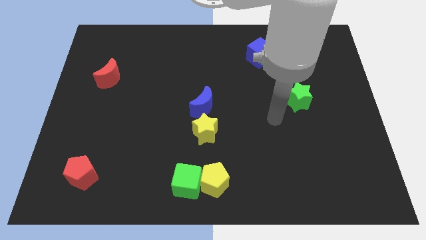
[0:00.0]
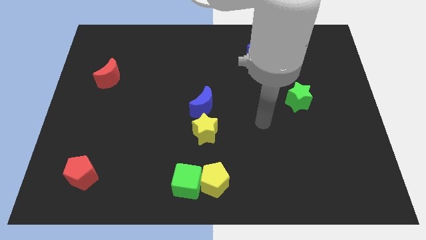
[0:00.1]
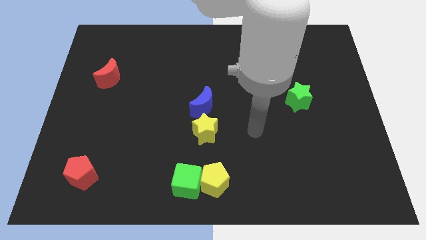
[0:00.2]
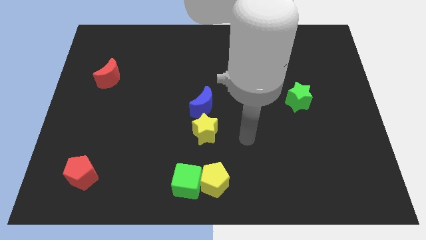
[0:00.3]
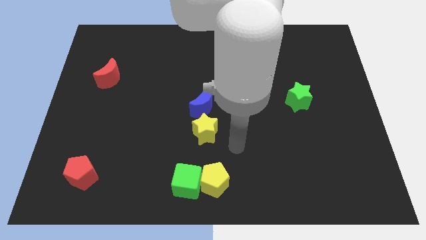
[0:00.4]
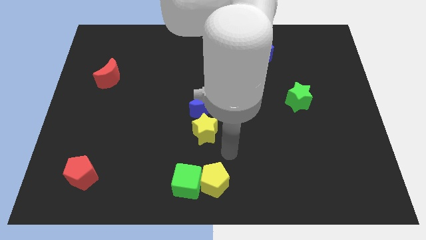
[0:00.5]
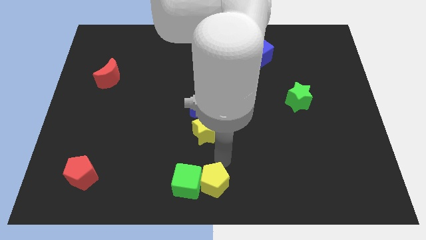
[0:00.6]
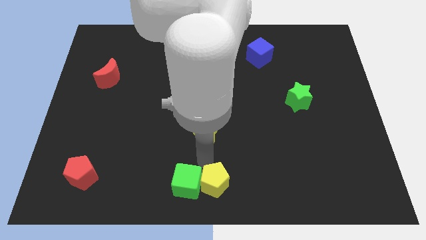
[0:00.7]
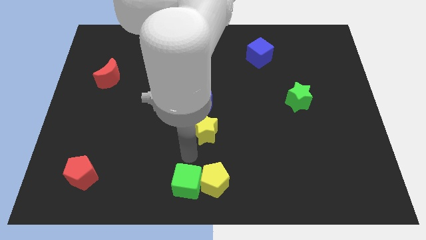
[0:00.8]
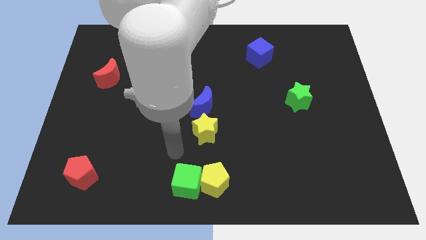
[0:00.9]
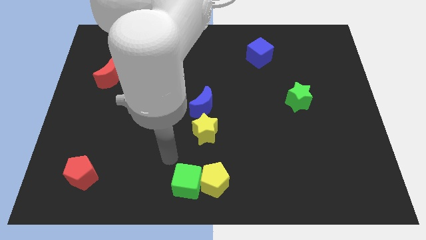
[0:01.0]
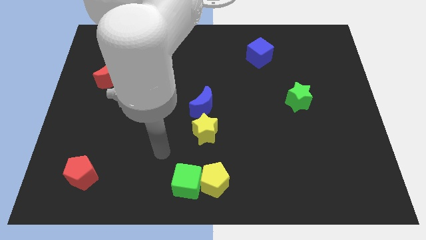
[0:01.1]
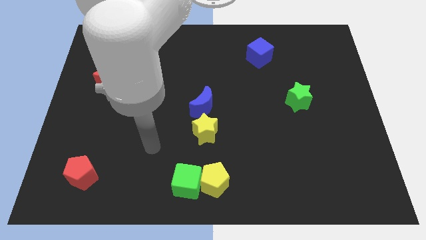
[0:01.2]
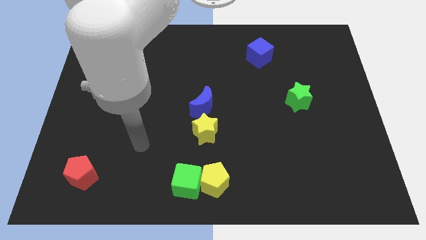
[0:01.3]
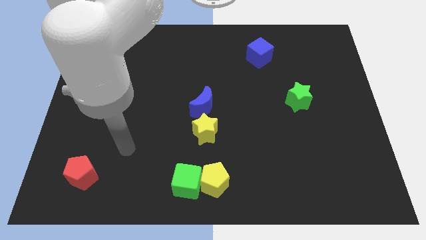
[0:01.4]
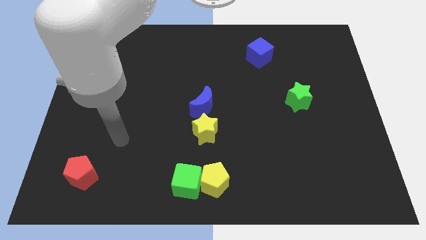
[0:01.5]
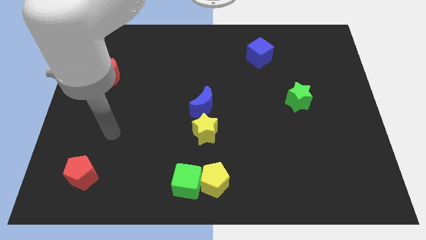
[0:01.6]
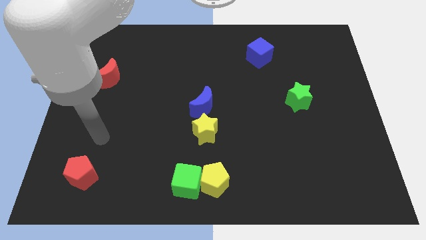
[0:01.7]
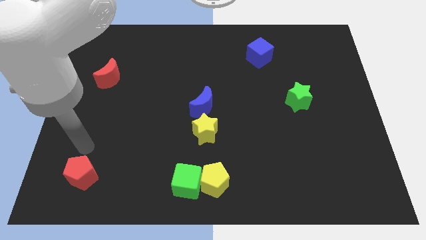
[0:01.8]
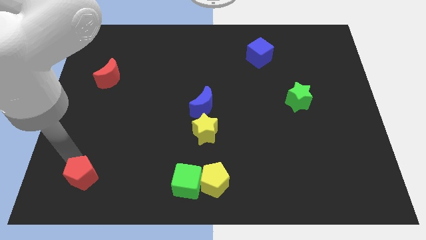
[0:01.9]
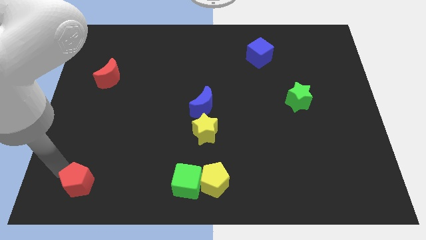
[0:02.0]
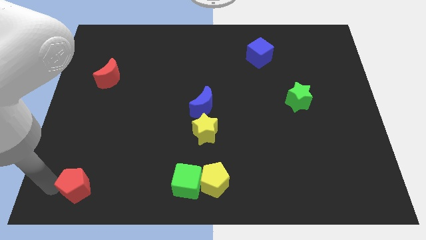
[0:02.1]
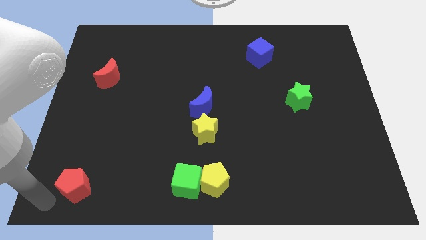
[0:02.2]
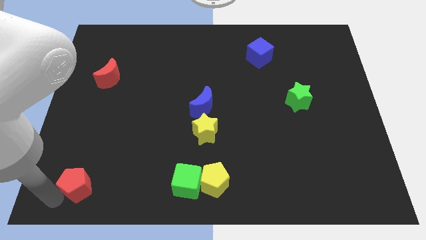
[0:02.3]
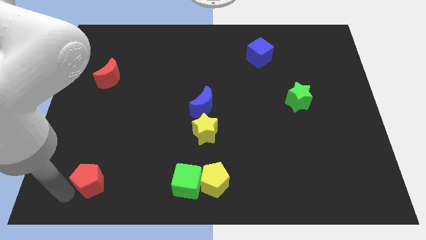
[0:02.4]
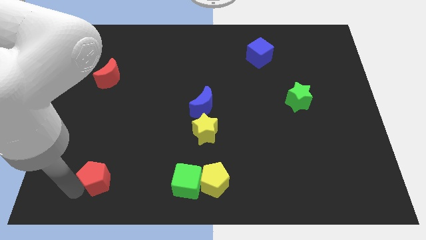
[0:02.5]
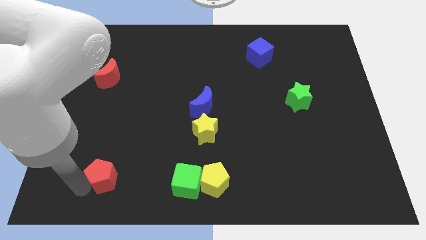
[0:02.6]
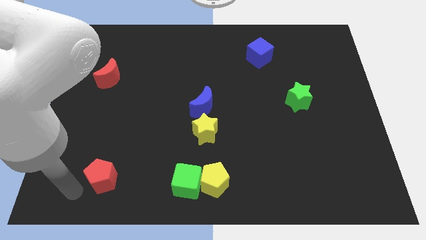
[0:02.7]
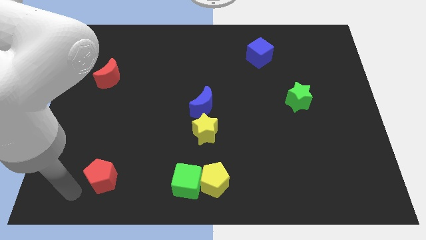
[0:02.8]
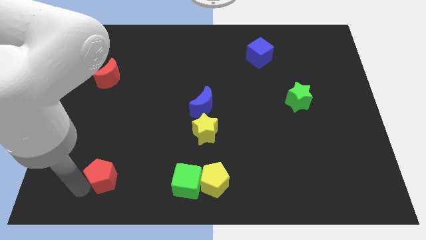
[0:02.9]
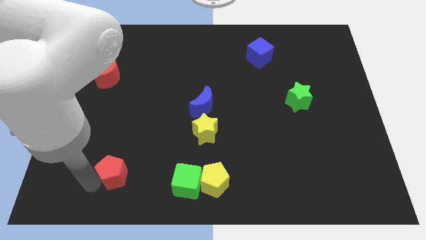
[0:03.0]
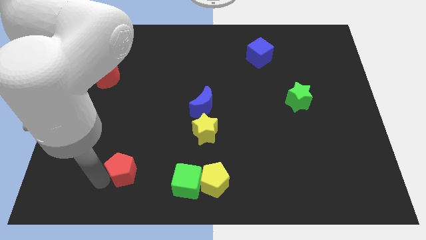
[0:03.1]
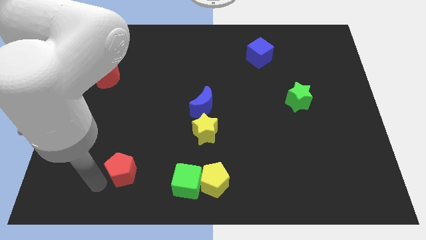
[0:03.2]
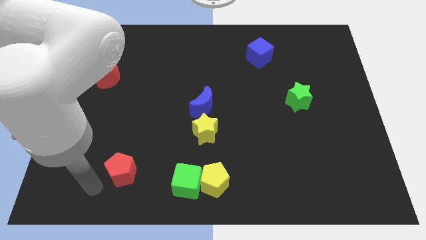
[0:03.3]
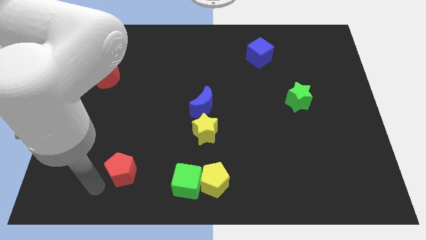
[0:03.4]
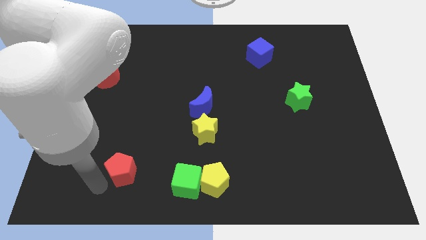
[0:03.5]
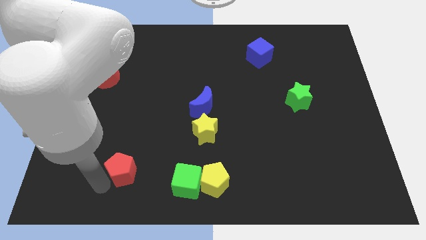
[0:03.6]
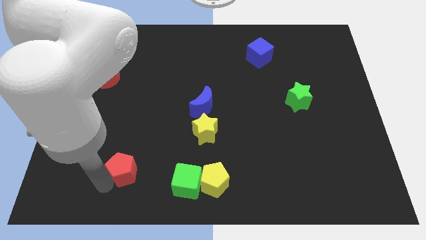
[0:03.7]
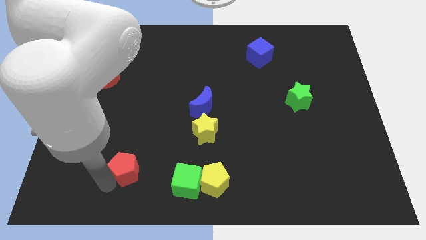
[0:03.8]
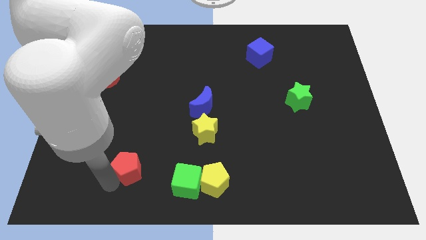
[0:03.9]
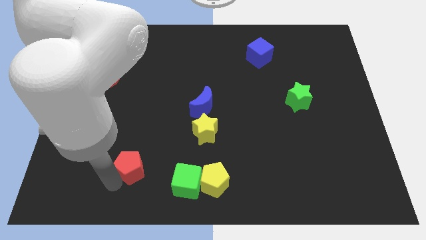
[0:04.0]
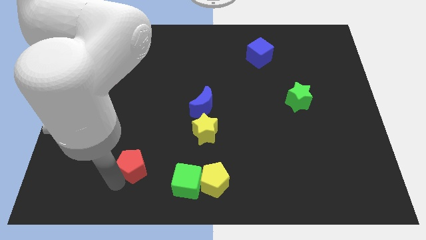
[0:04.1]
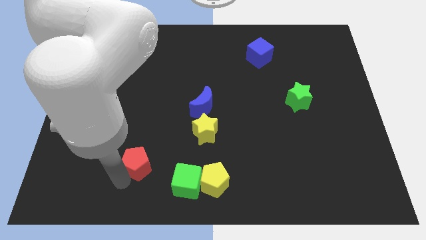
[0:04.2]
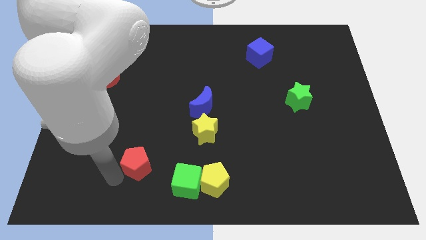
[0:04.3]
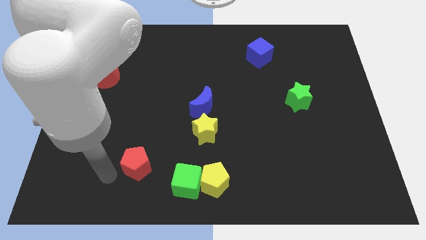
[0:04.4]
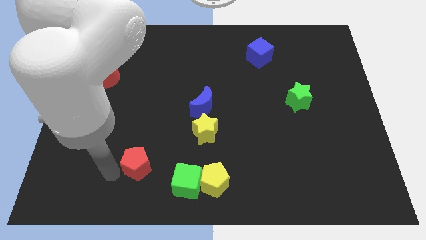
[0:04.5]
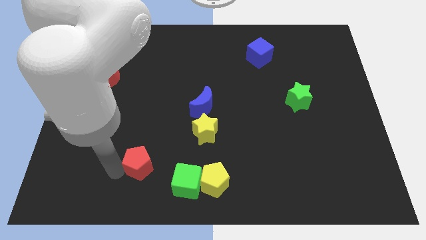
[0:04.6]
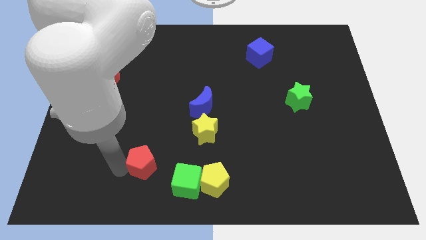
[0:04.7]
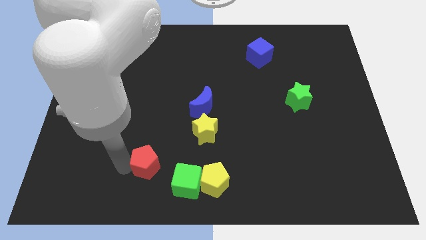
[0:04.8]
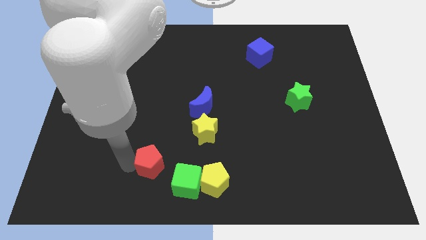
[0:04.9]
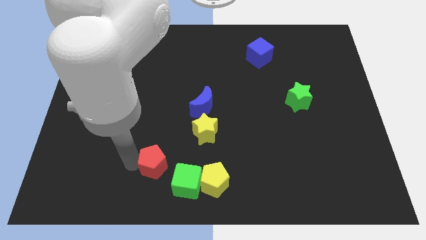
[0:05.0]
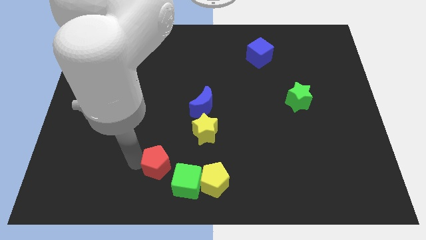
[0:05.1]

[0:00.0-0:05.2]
move the red pentagon diagonally down and to the left of the yellow star

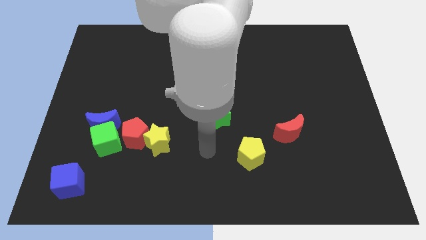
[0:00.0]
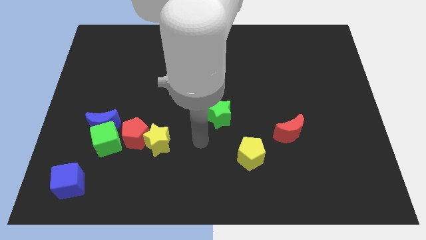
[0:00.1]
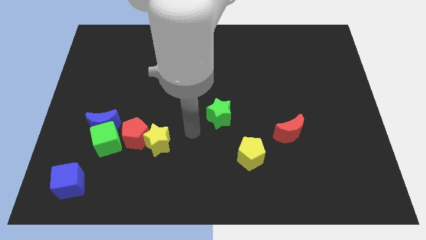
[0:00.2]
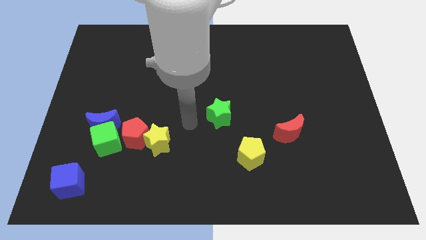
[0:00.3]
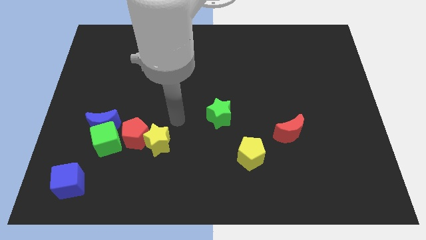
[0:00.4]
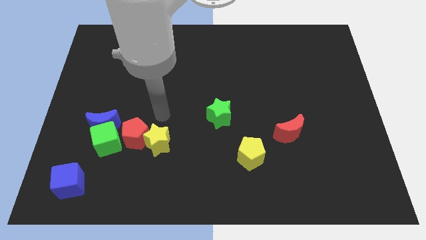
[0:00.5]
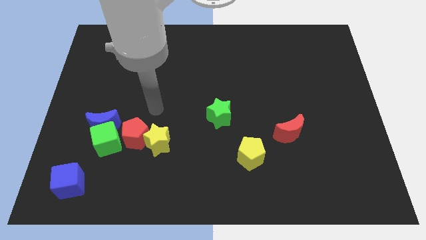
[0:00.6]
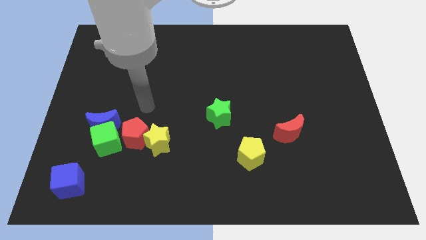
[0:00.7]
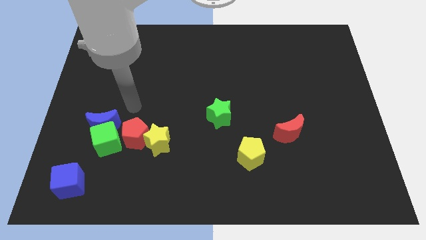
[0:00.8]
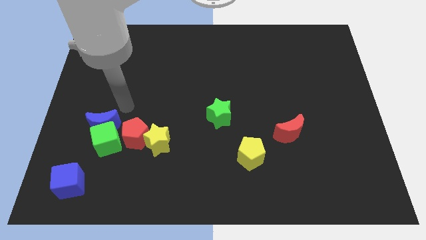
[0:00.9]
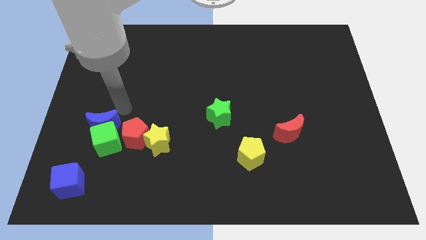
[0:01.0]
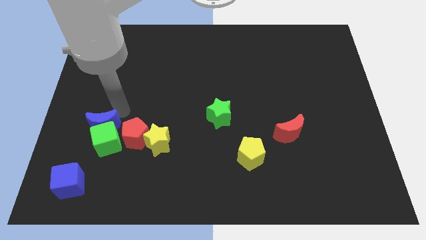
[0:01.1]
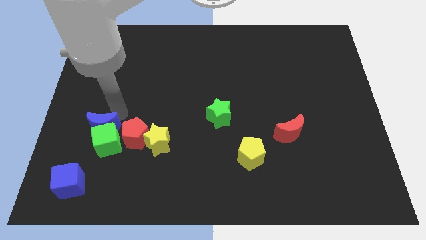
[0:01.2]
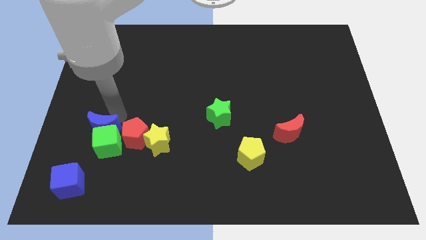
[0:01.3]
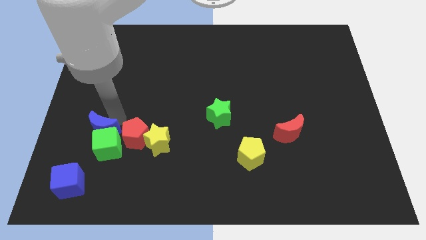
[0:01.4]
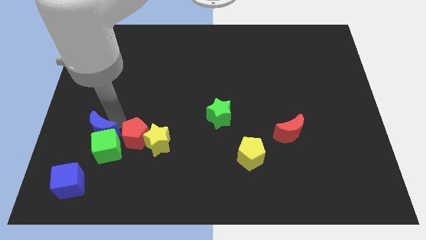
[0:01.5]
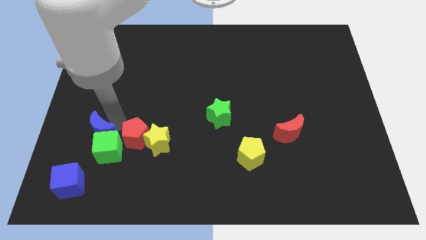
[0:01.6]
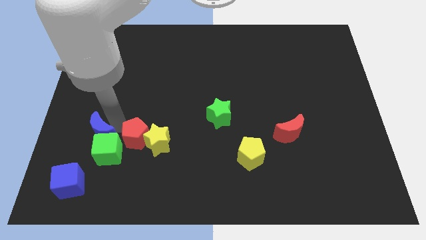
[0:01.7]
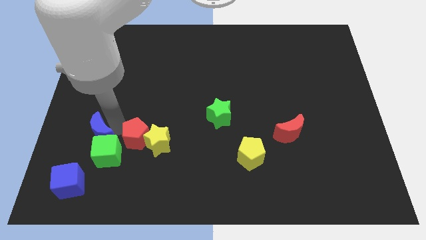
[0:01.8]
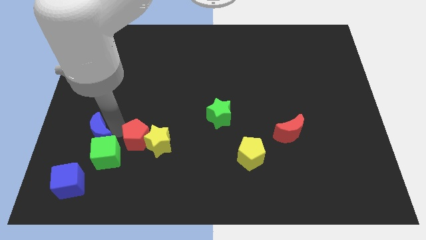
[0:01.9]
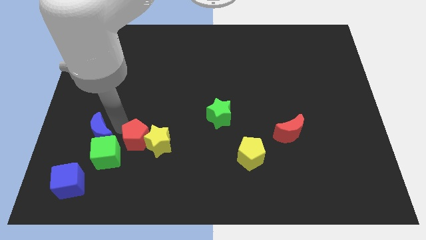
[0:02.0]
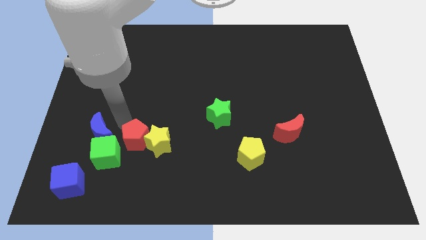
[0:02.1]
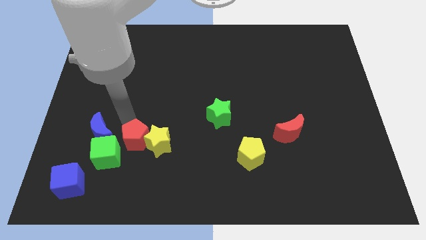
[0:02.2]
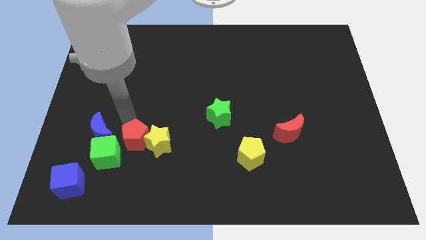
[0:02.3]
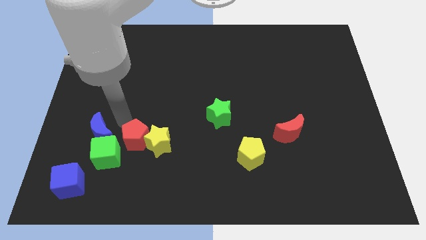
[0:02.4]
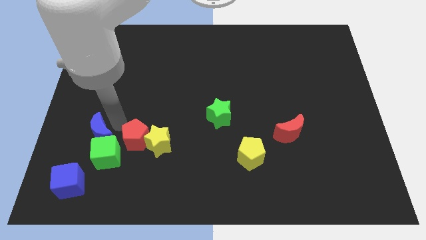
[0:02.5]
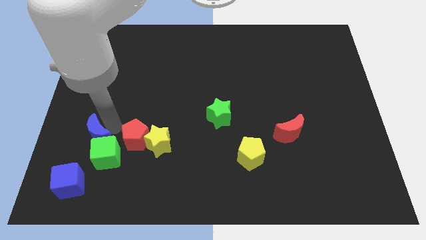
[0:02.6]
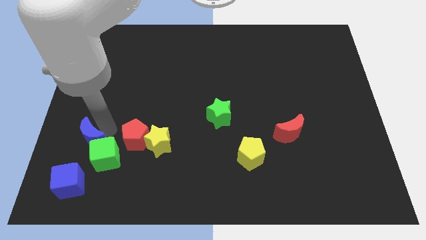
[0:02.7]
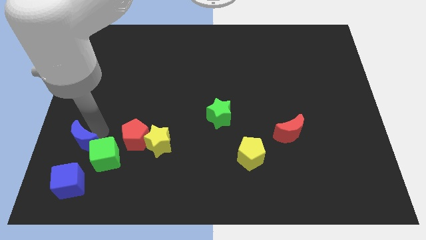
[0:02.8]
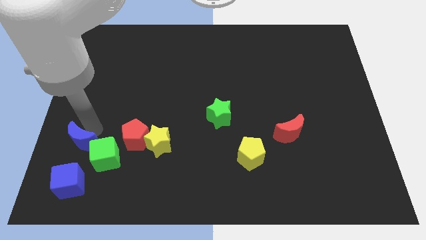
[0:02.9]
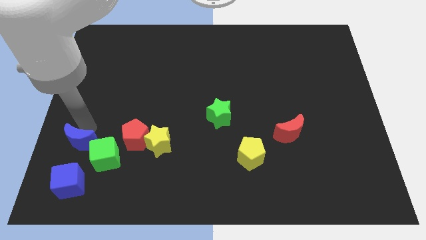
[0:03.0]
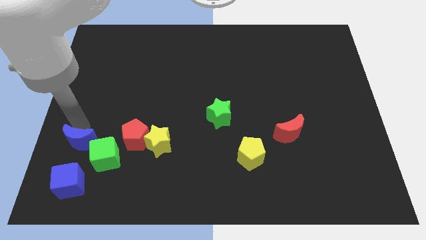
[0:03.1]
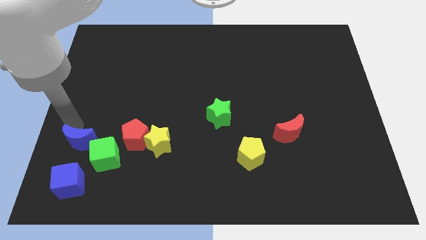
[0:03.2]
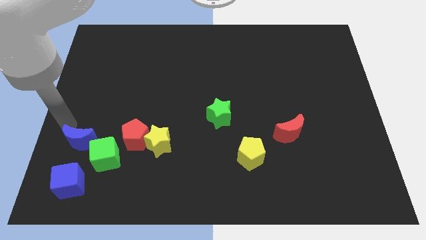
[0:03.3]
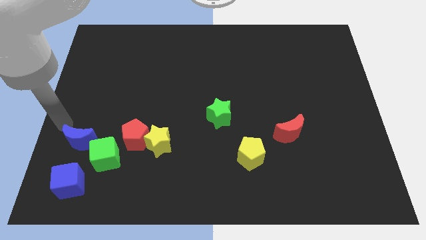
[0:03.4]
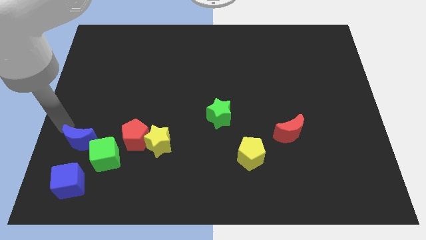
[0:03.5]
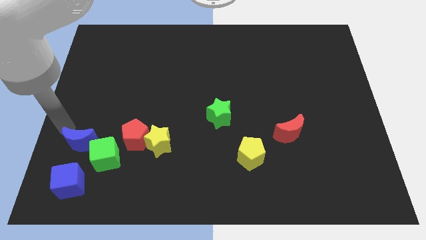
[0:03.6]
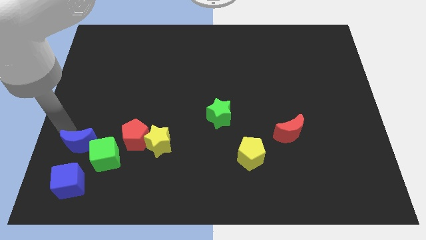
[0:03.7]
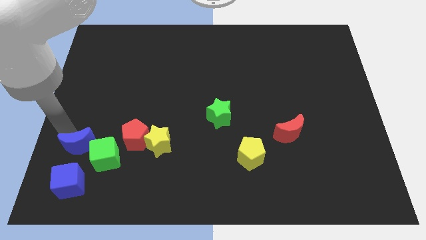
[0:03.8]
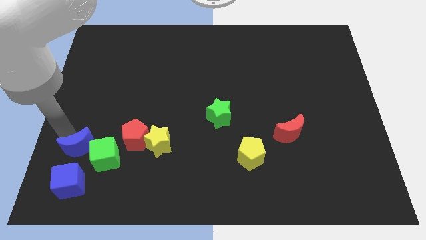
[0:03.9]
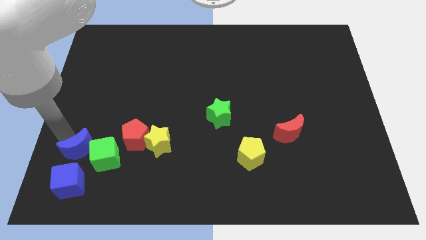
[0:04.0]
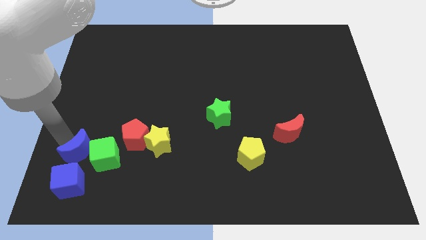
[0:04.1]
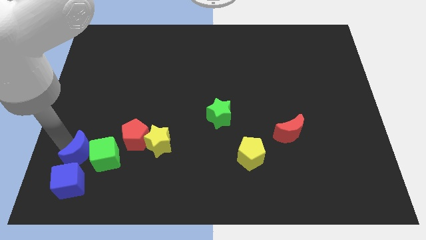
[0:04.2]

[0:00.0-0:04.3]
push the blue moon to the top right side of the blue cube
